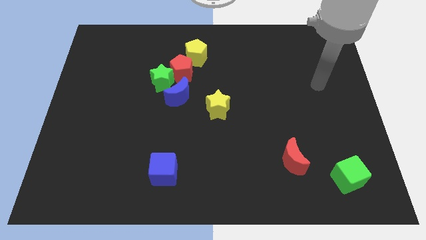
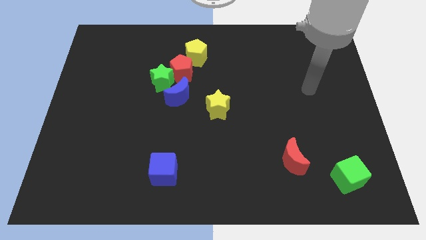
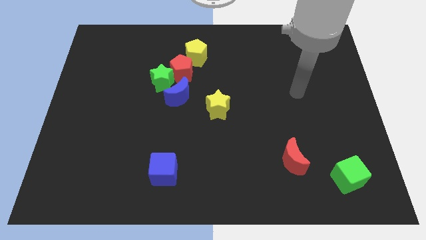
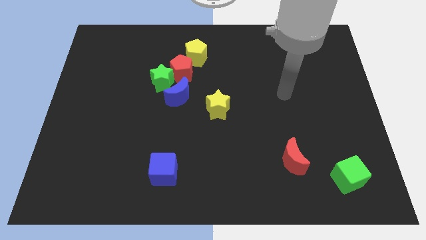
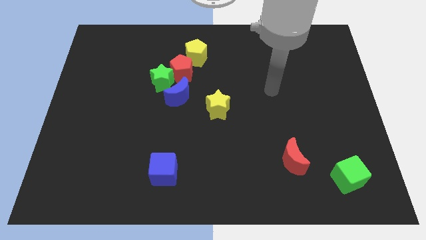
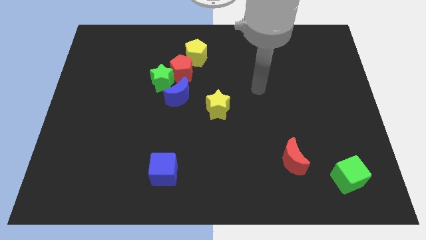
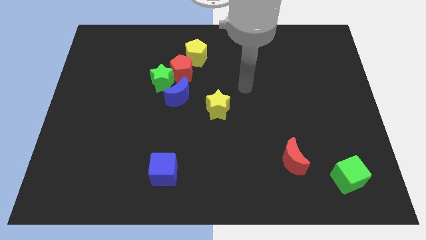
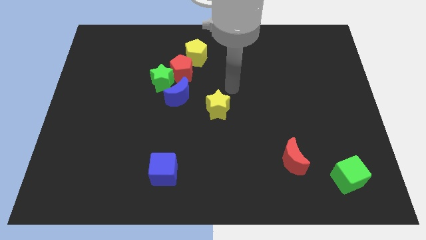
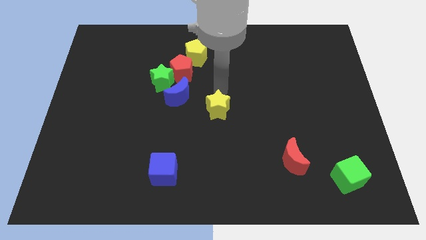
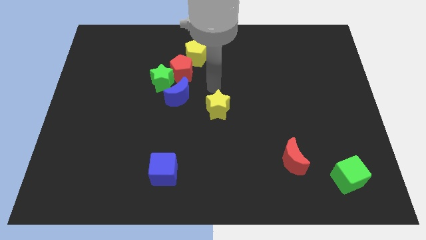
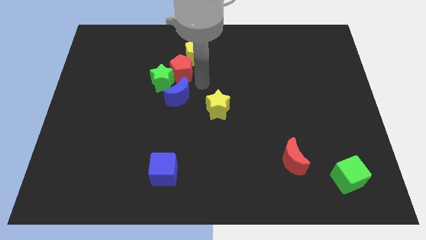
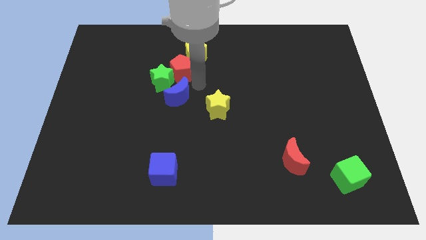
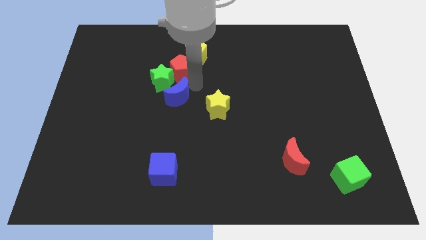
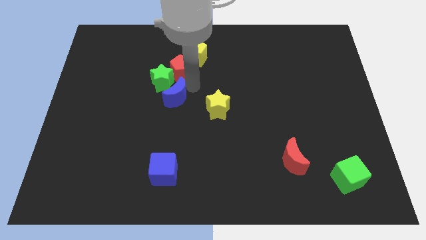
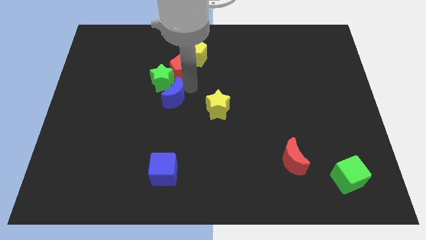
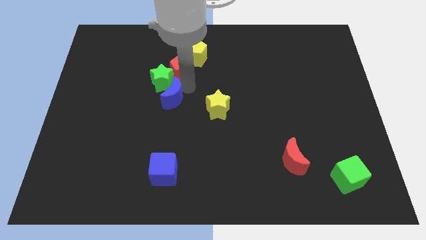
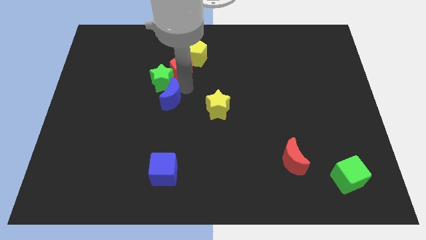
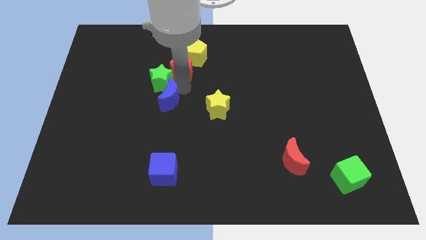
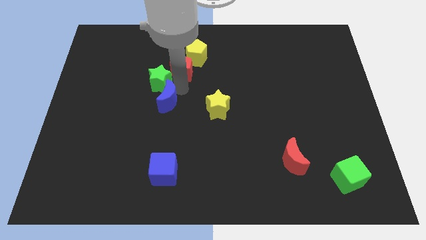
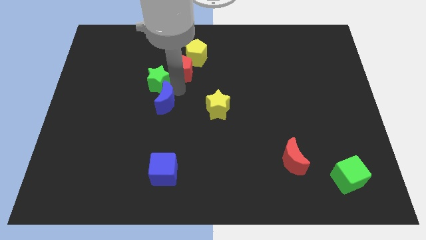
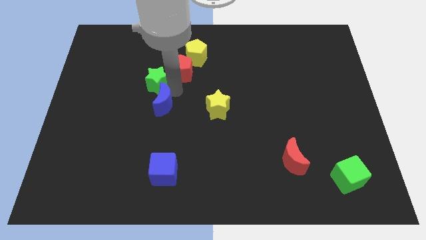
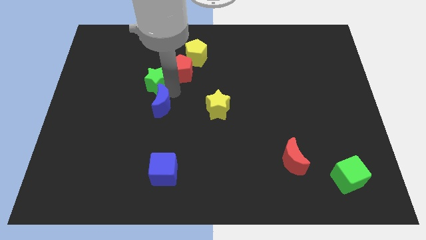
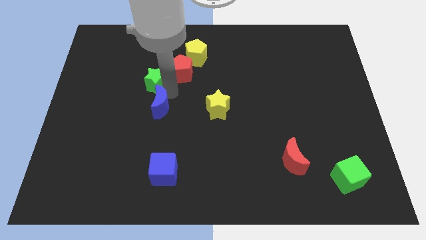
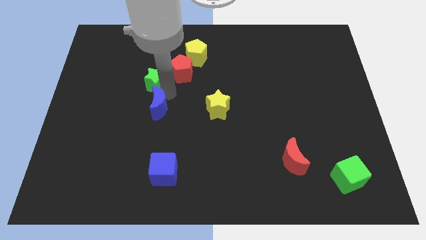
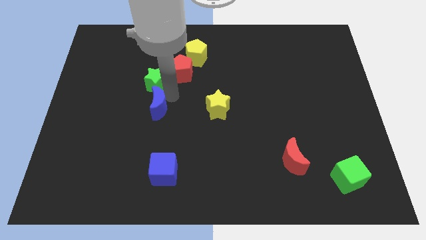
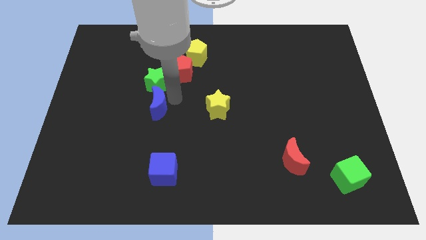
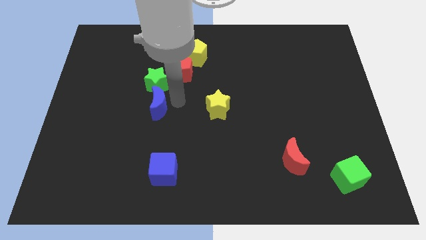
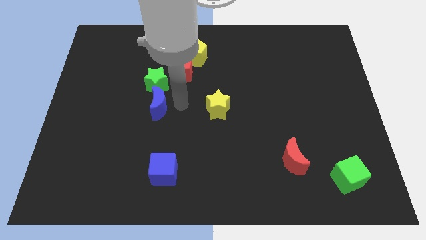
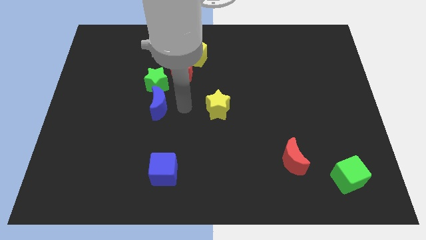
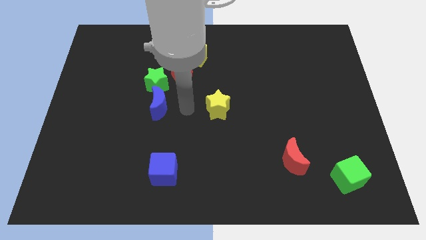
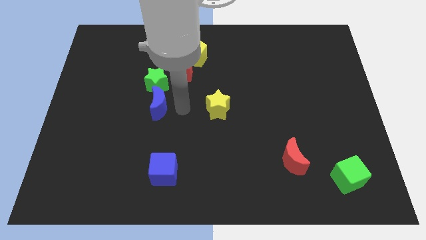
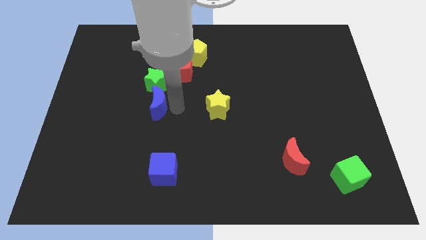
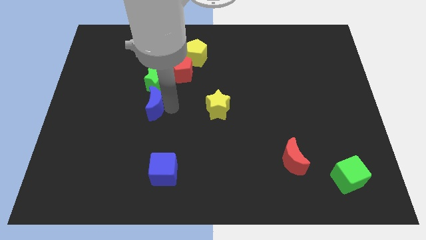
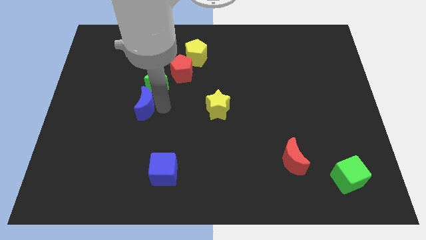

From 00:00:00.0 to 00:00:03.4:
slide the blue moon slightly left

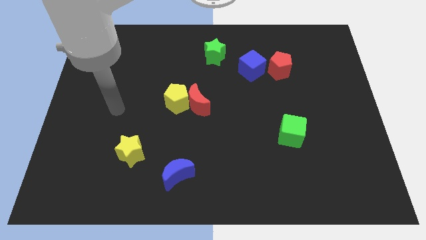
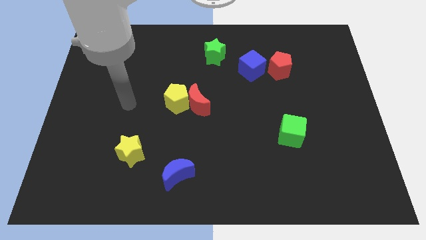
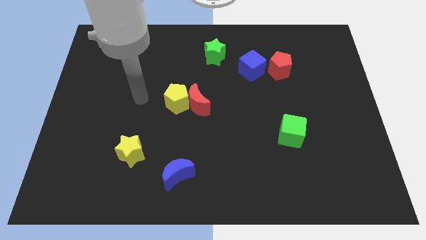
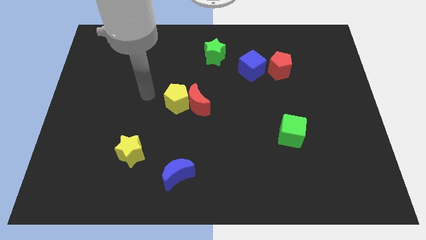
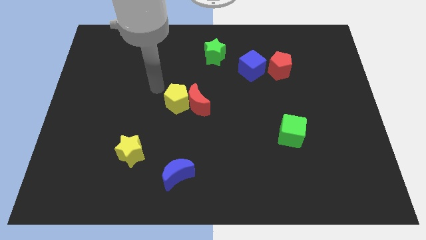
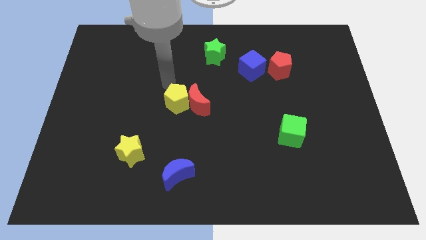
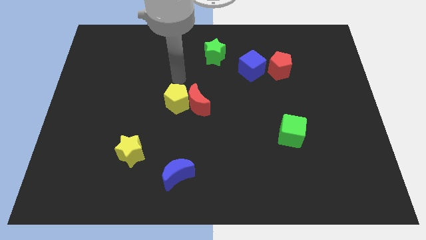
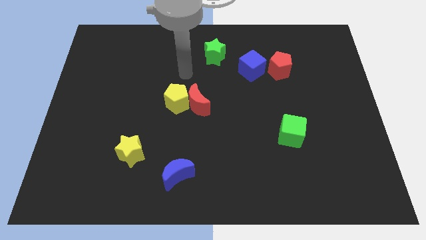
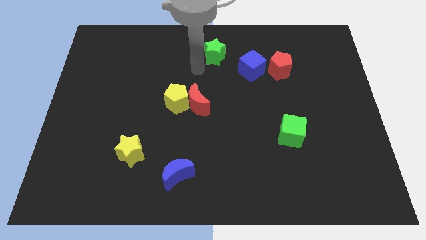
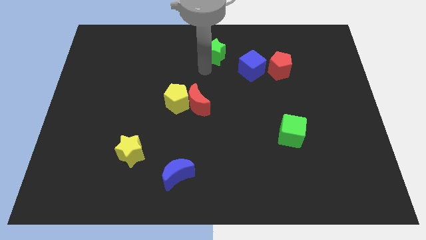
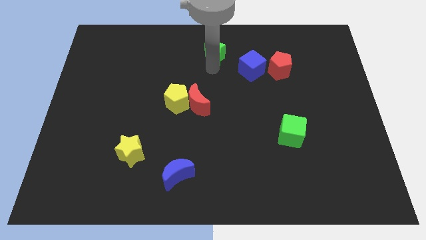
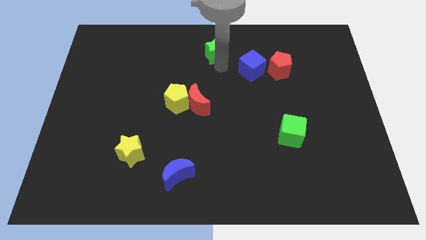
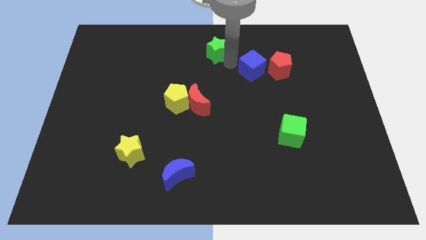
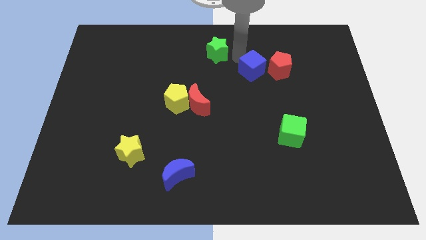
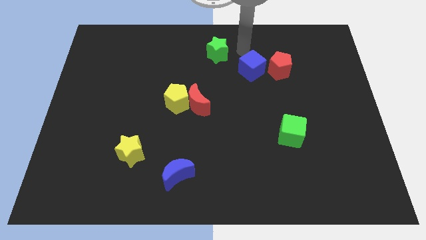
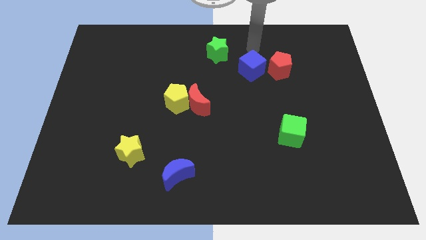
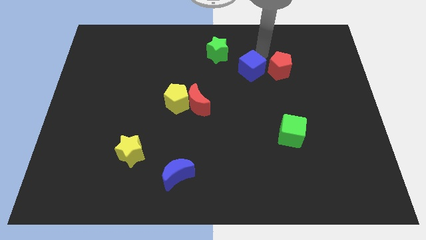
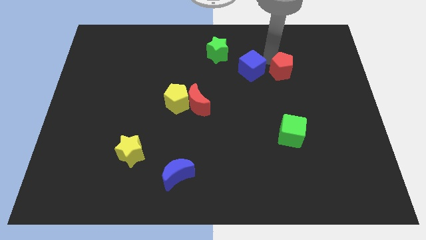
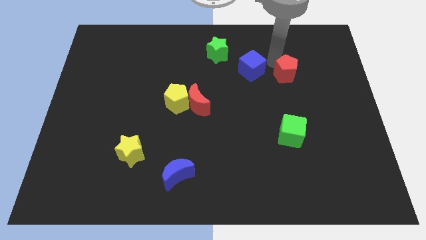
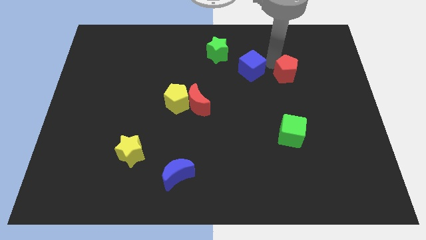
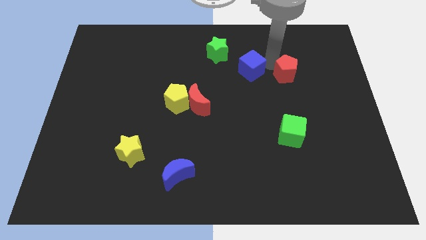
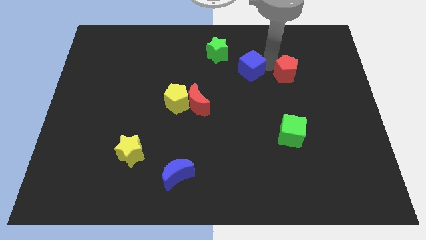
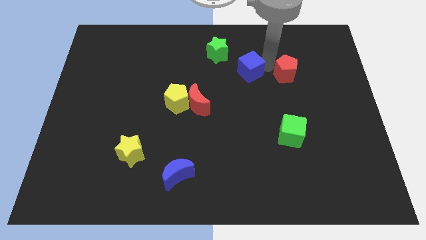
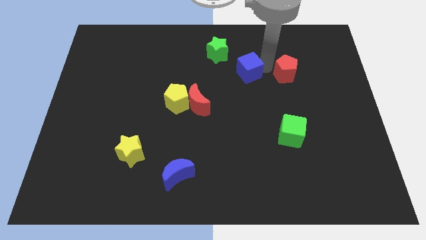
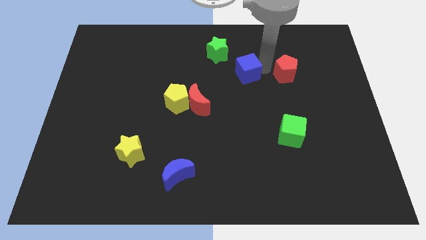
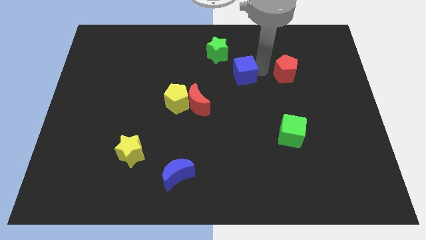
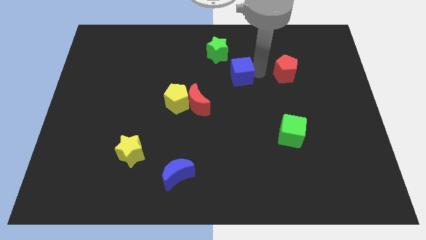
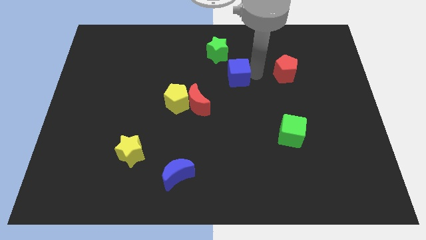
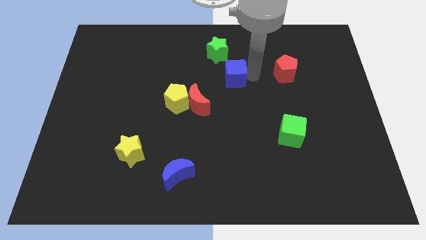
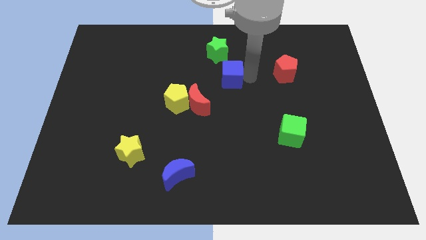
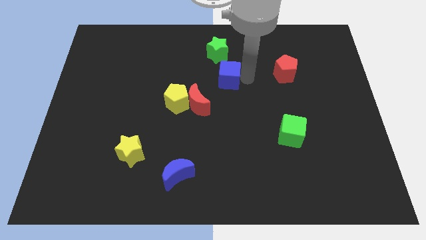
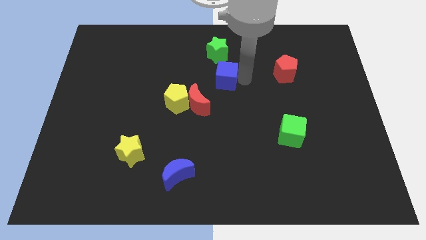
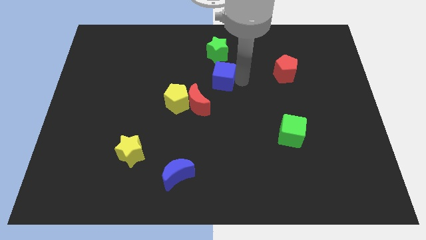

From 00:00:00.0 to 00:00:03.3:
move the blue cube to the left a bit

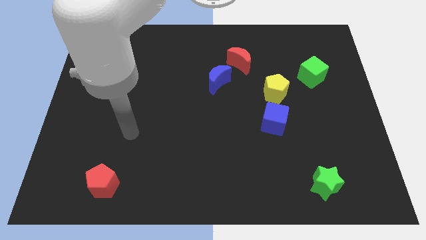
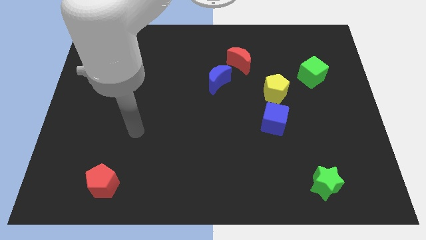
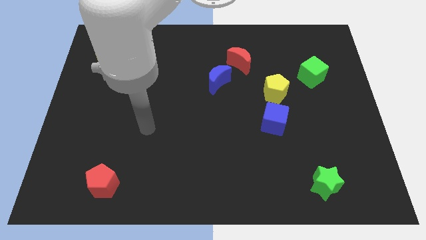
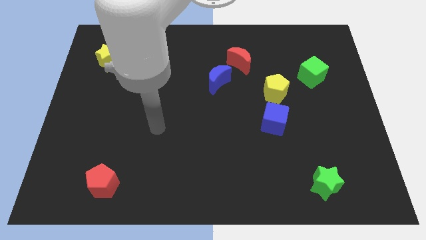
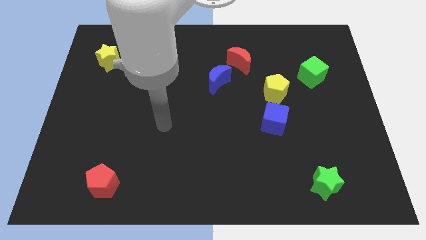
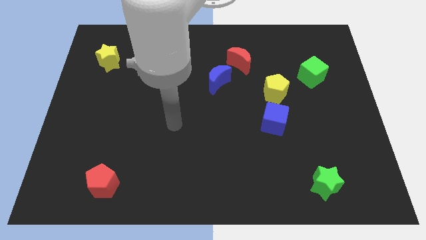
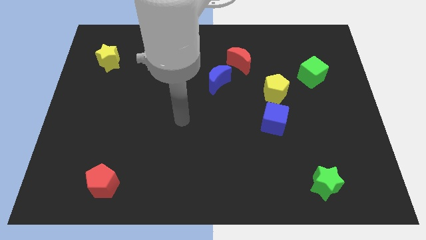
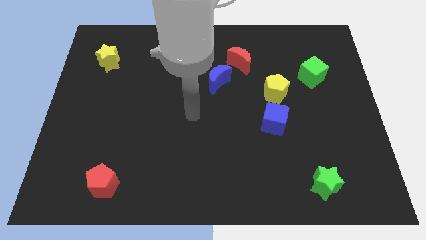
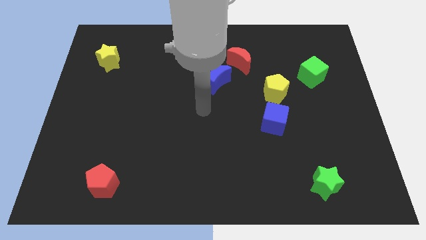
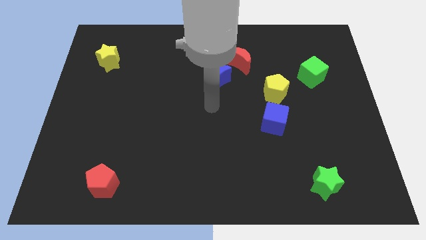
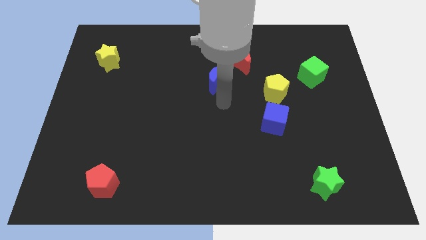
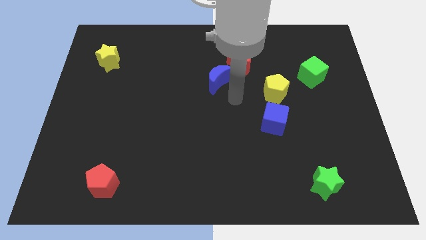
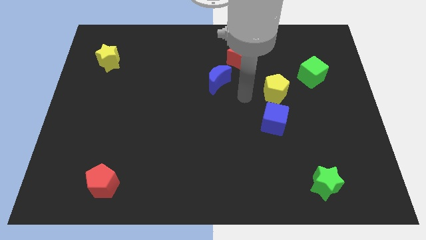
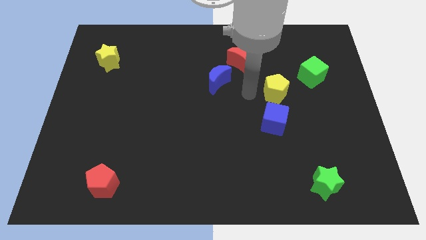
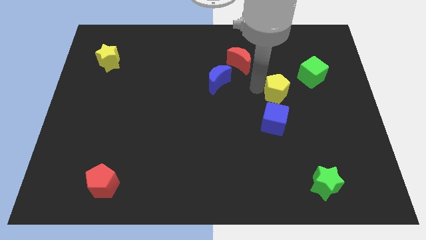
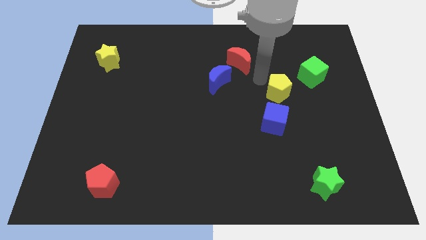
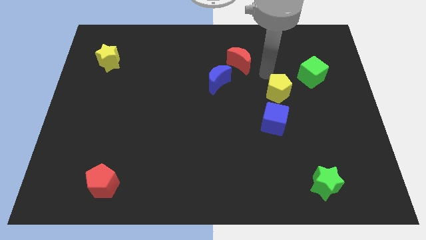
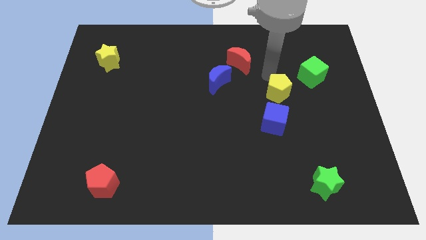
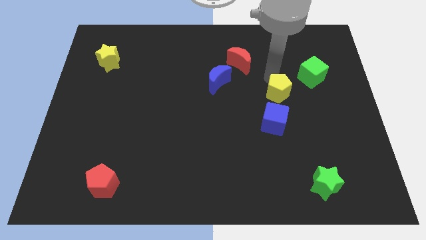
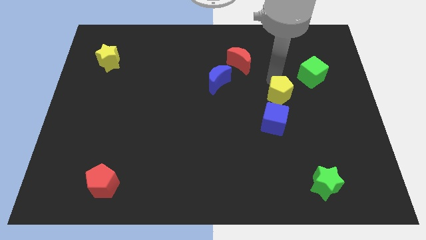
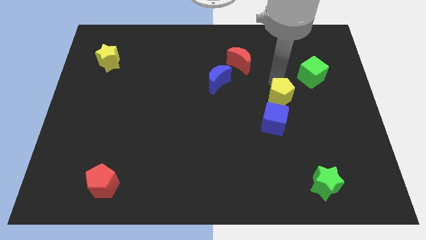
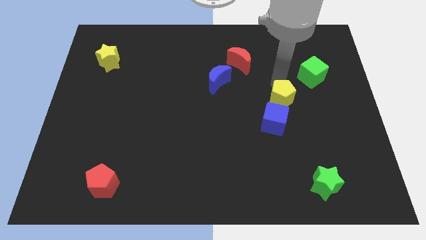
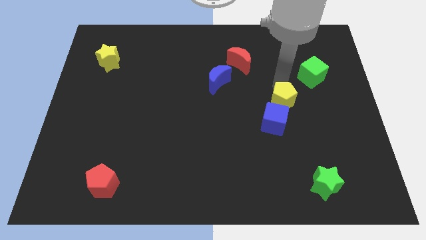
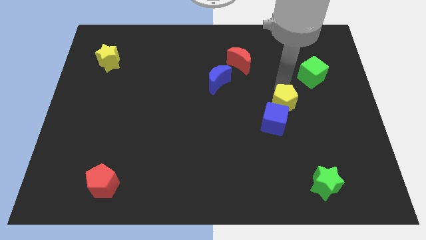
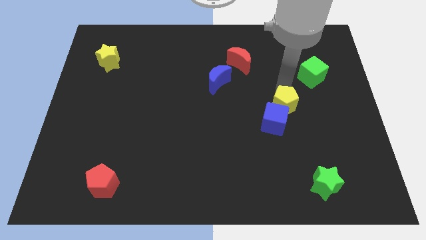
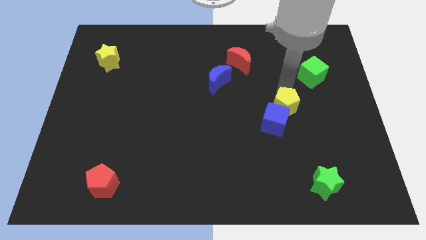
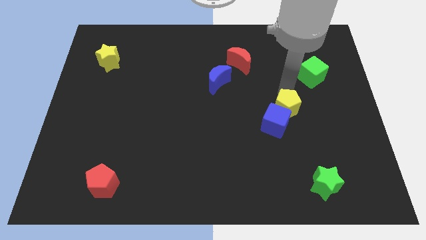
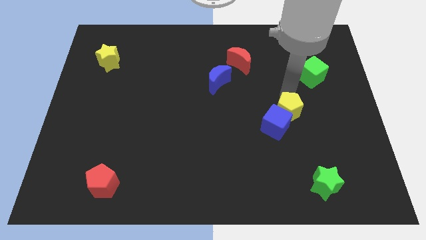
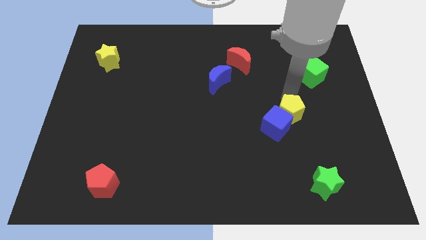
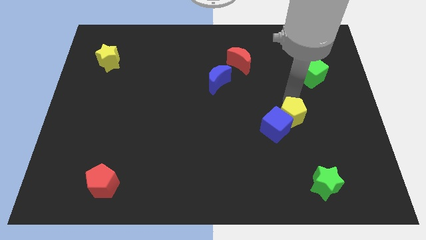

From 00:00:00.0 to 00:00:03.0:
slightly slide the yellow pentagon downwards
